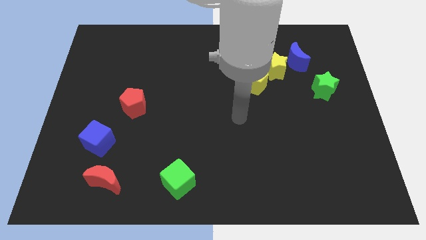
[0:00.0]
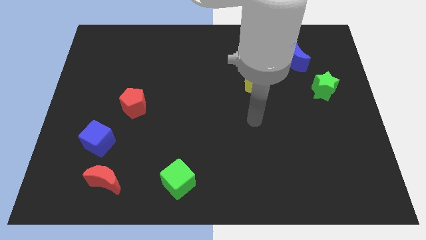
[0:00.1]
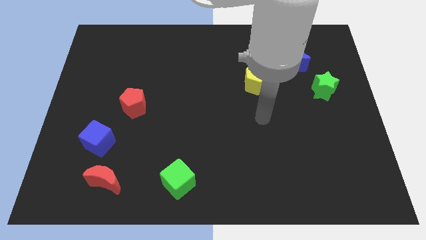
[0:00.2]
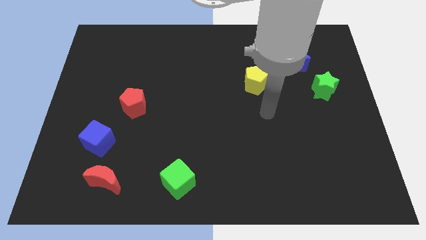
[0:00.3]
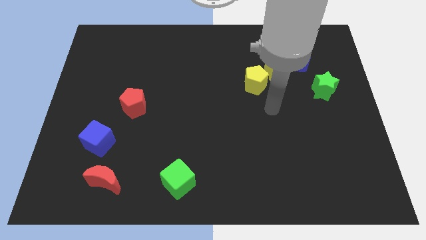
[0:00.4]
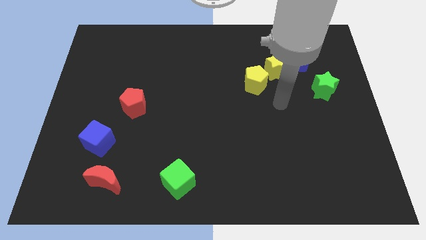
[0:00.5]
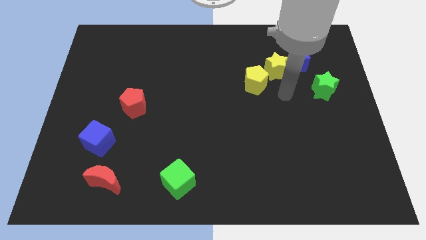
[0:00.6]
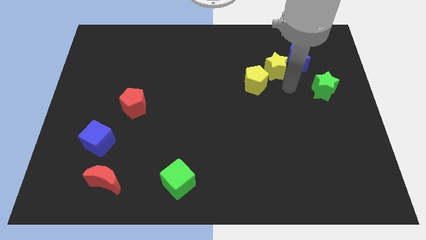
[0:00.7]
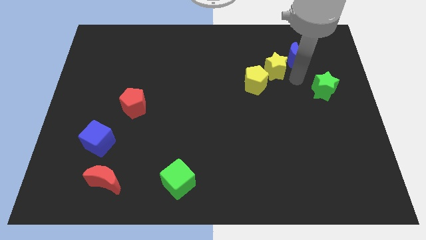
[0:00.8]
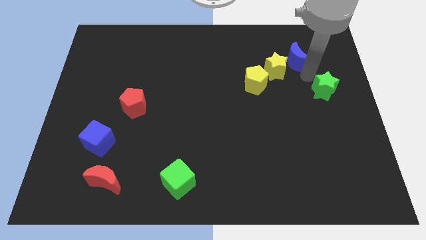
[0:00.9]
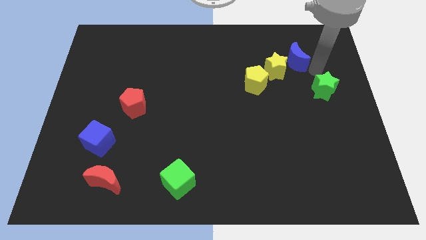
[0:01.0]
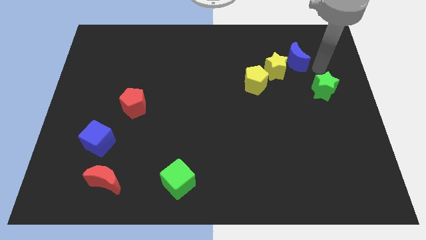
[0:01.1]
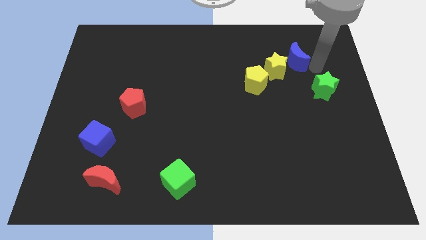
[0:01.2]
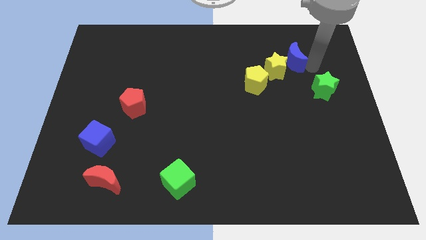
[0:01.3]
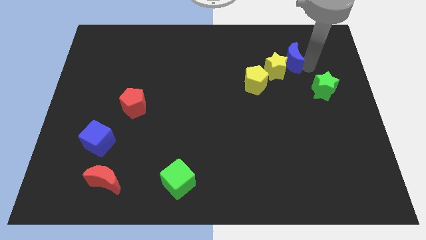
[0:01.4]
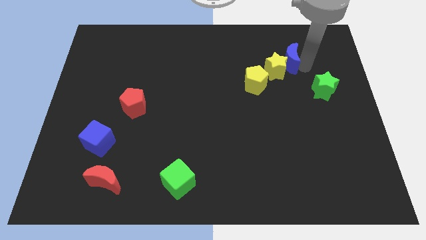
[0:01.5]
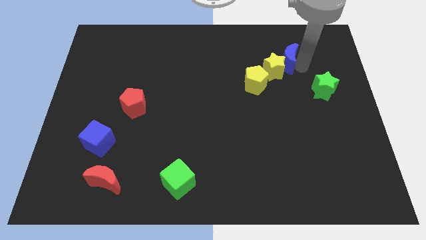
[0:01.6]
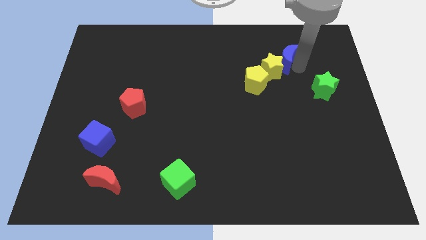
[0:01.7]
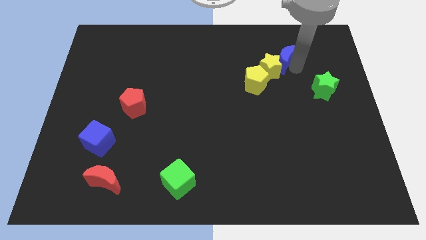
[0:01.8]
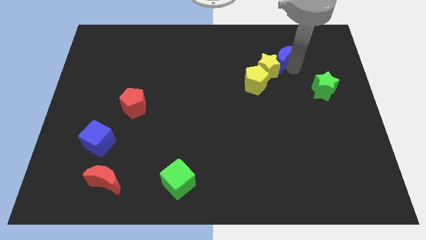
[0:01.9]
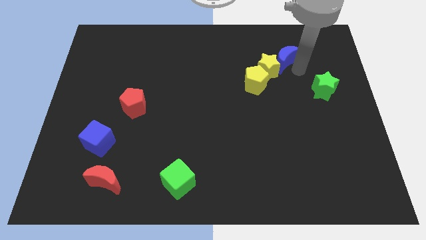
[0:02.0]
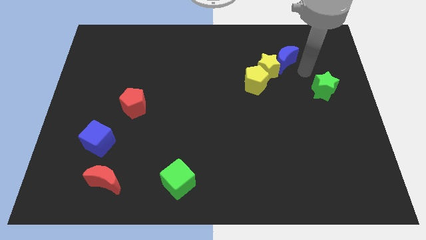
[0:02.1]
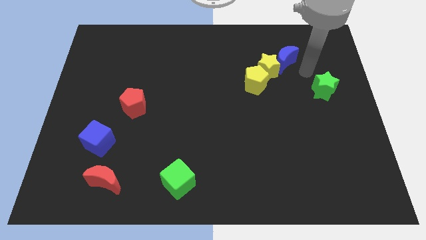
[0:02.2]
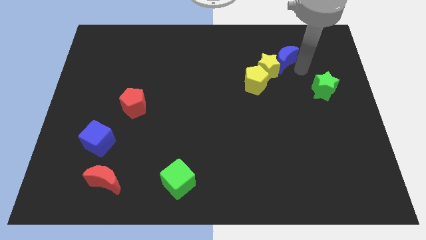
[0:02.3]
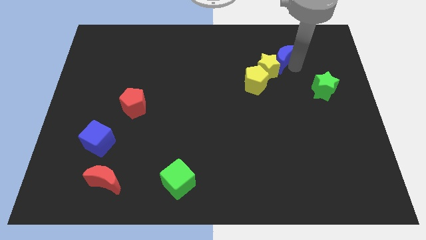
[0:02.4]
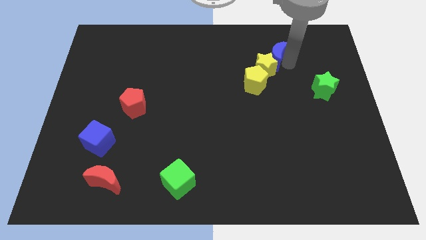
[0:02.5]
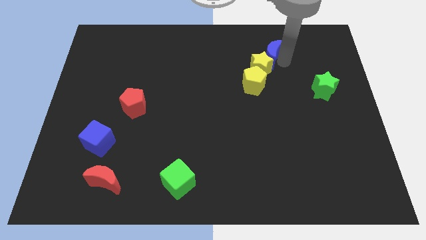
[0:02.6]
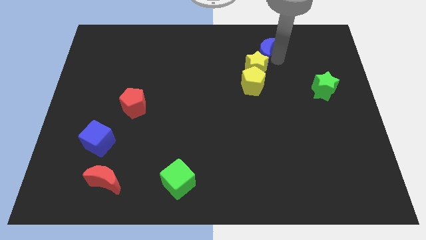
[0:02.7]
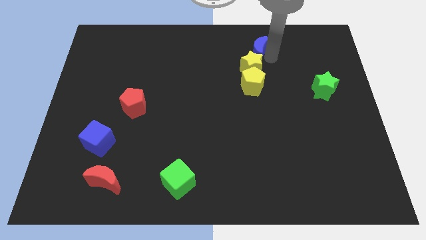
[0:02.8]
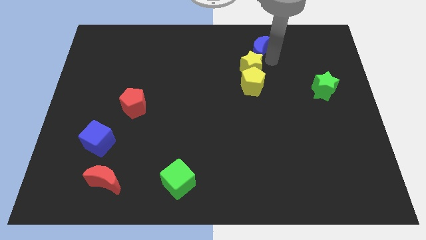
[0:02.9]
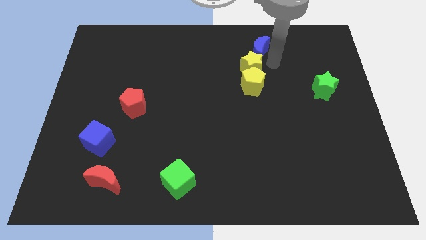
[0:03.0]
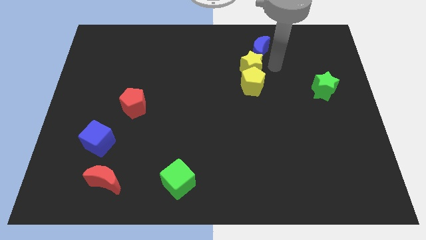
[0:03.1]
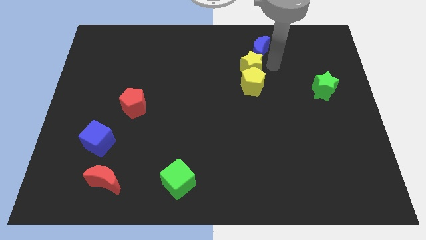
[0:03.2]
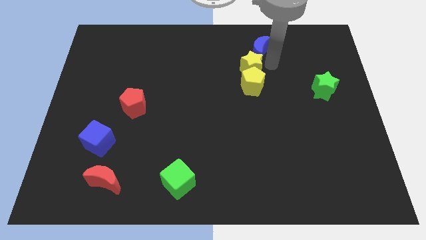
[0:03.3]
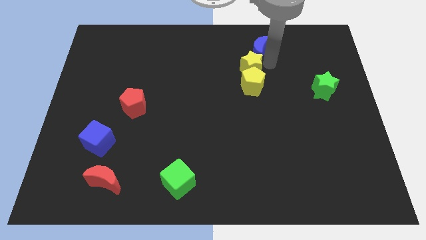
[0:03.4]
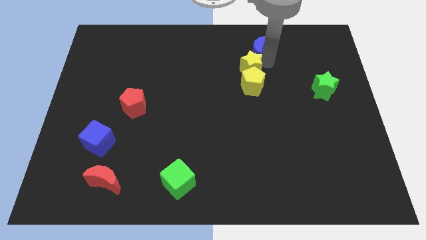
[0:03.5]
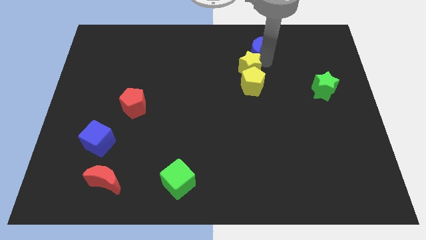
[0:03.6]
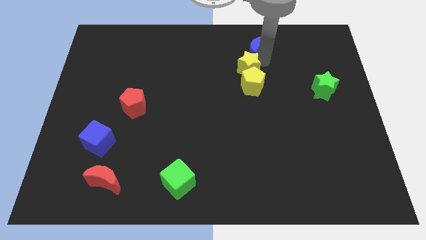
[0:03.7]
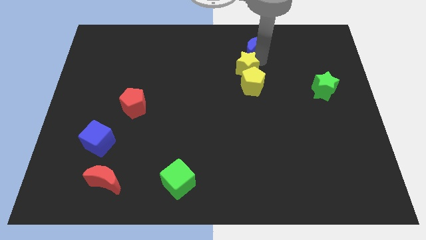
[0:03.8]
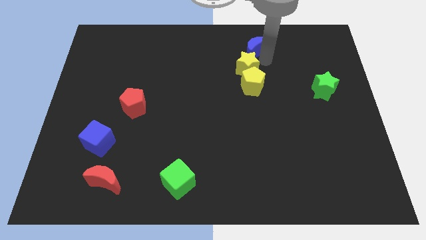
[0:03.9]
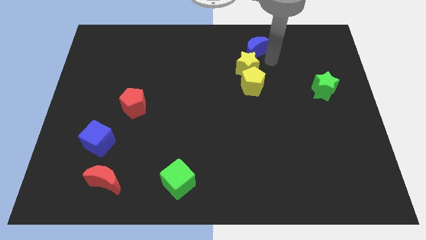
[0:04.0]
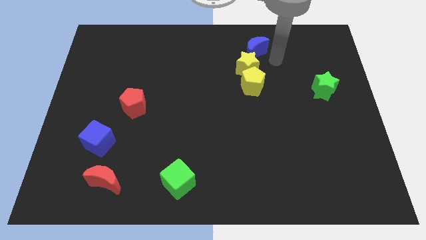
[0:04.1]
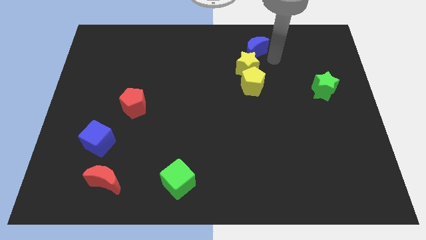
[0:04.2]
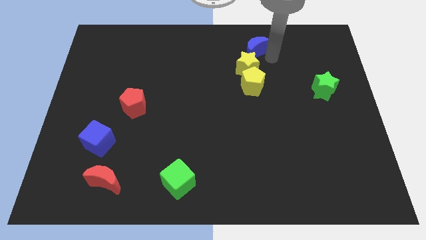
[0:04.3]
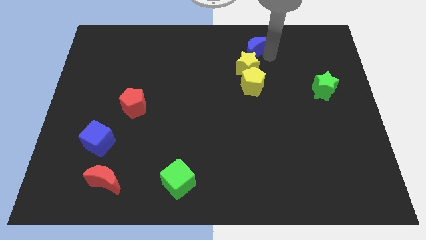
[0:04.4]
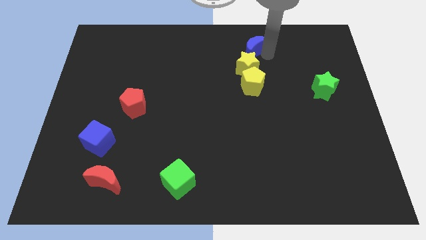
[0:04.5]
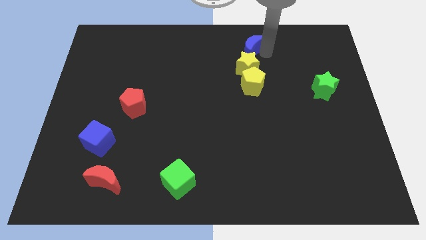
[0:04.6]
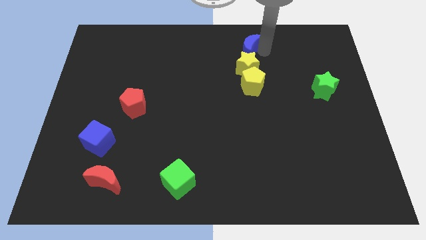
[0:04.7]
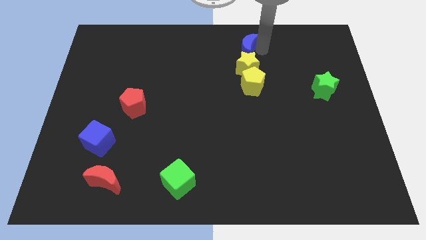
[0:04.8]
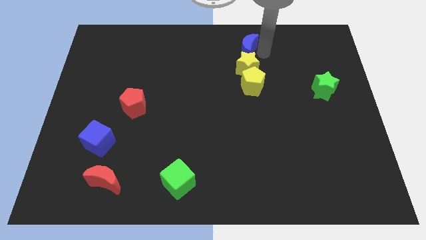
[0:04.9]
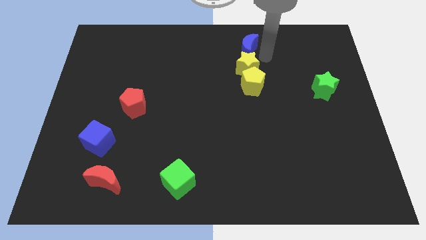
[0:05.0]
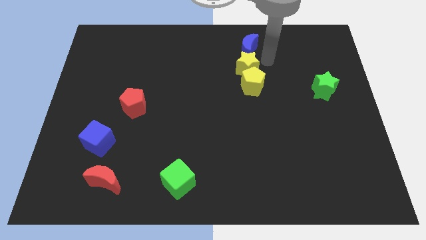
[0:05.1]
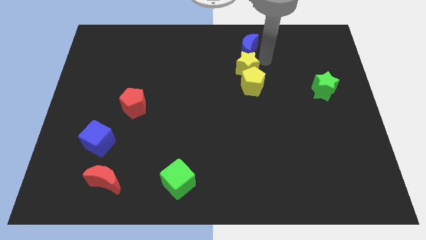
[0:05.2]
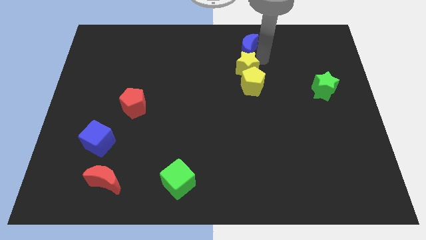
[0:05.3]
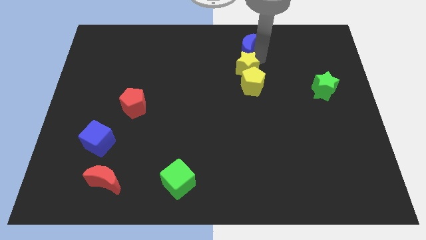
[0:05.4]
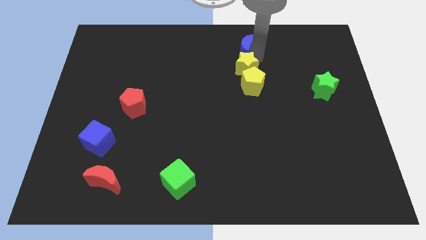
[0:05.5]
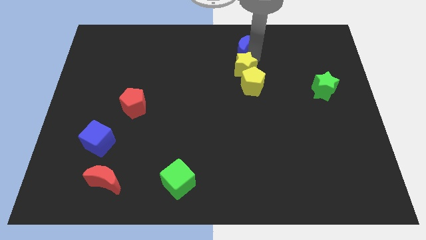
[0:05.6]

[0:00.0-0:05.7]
push the blue moon to the top side

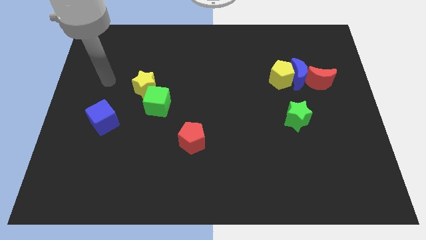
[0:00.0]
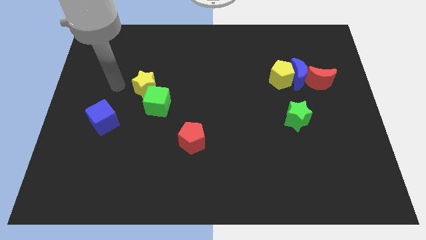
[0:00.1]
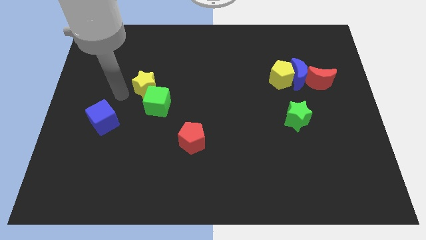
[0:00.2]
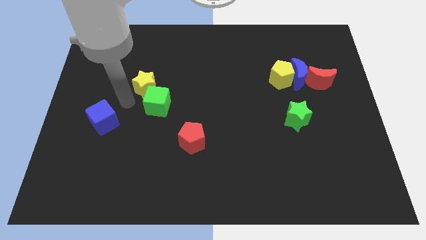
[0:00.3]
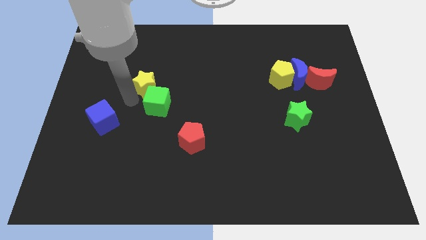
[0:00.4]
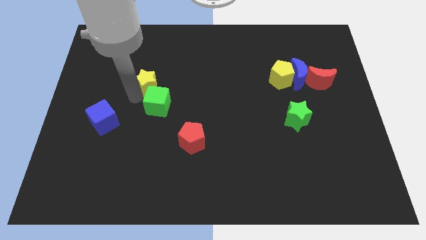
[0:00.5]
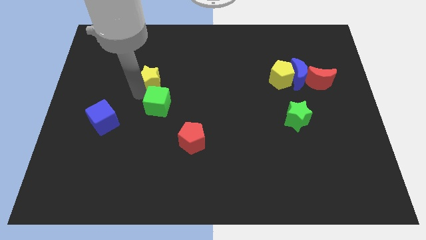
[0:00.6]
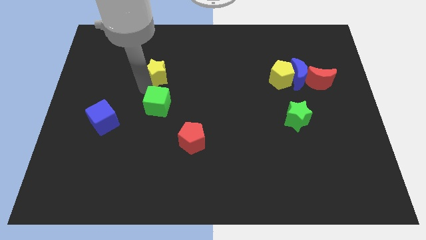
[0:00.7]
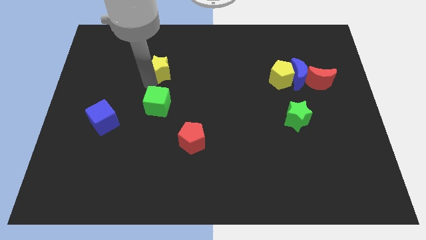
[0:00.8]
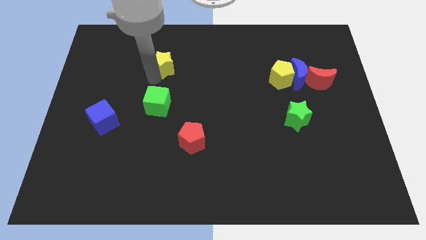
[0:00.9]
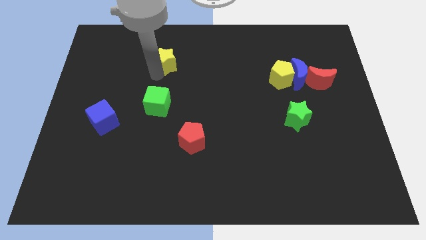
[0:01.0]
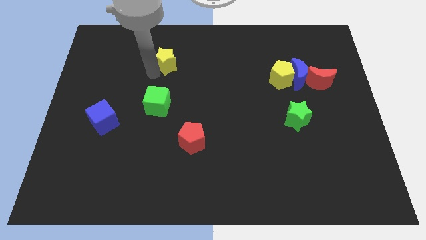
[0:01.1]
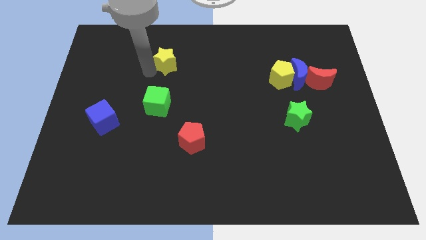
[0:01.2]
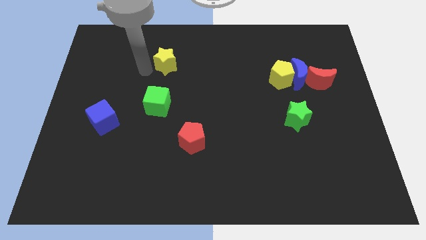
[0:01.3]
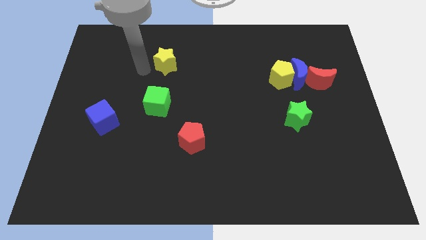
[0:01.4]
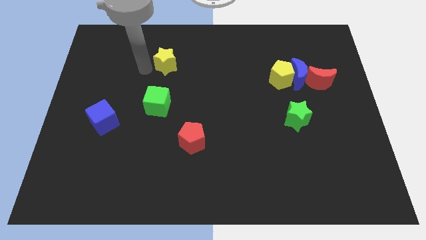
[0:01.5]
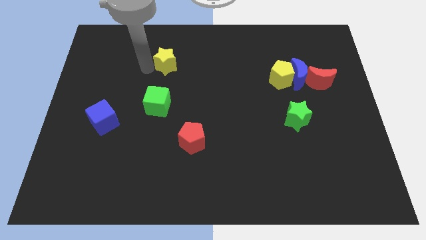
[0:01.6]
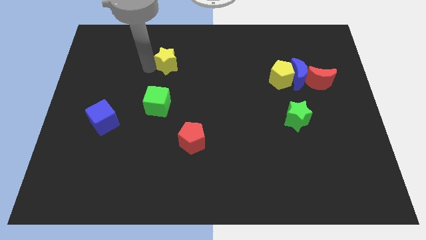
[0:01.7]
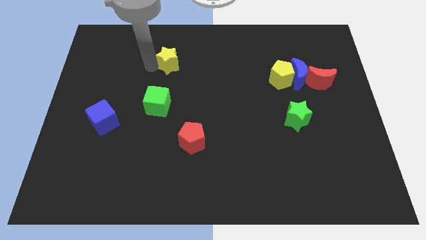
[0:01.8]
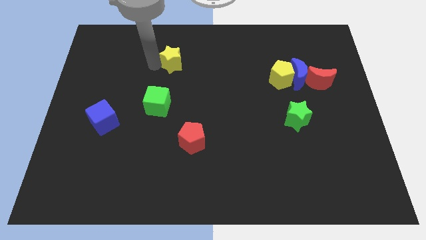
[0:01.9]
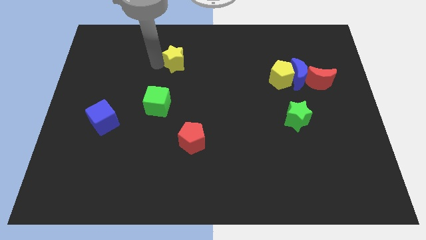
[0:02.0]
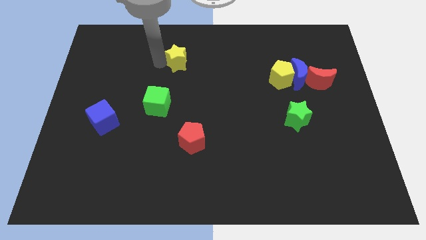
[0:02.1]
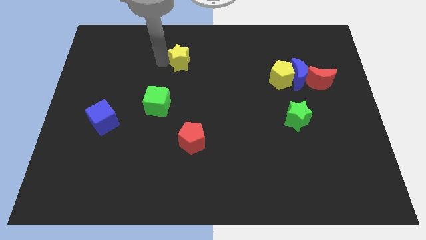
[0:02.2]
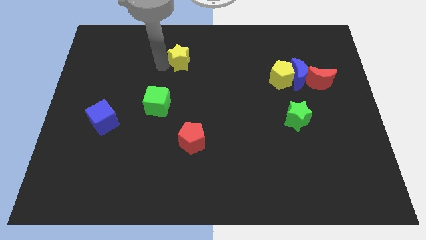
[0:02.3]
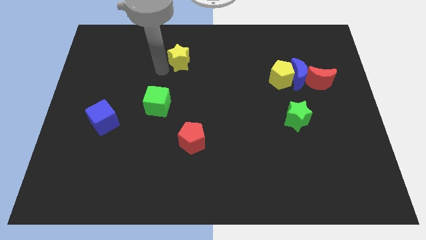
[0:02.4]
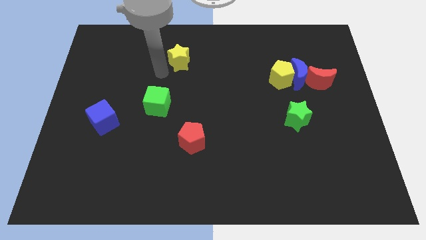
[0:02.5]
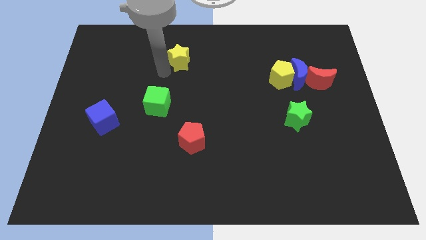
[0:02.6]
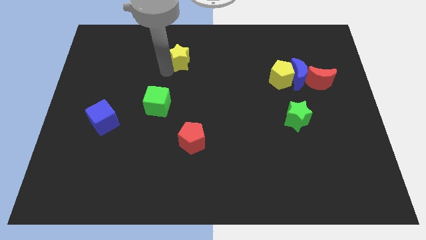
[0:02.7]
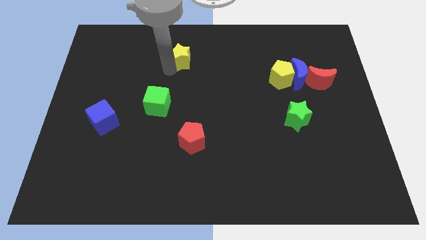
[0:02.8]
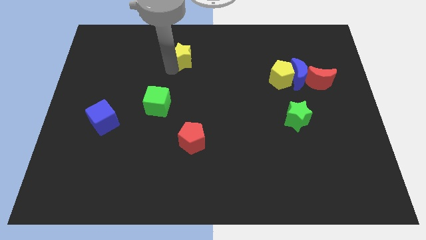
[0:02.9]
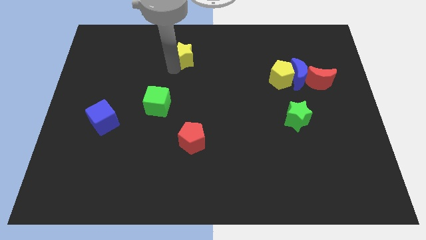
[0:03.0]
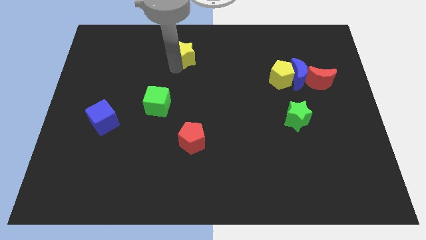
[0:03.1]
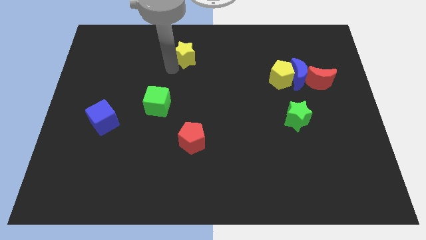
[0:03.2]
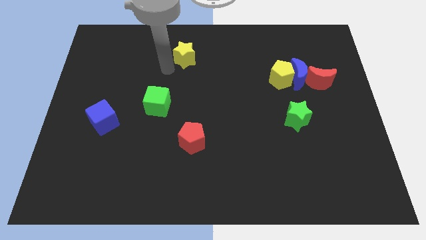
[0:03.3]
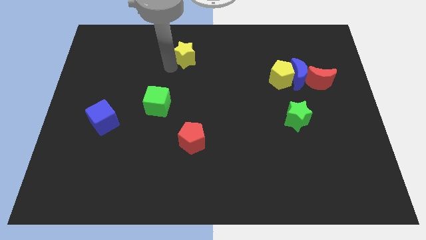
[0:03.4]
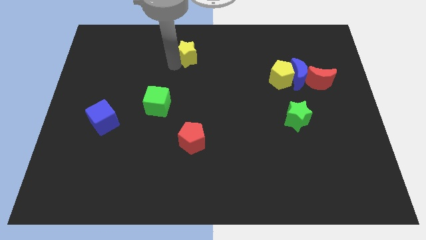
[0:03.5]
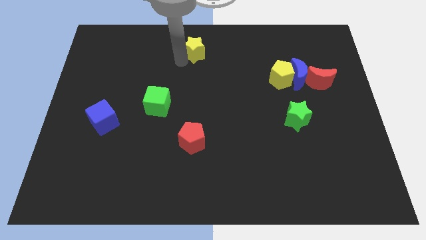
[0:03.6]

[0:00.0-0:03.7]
put the yellow star to the towards your base
